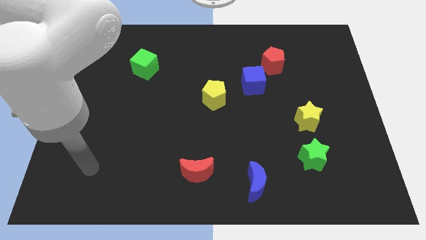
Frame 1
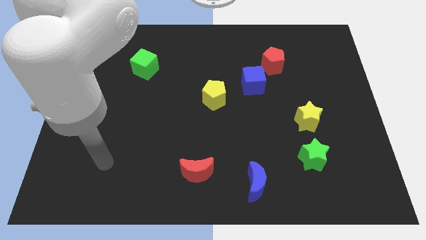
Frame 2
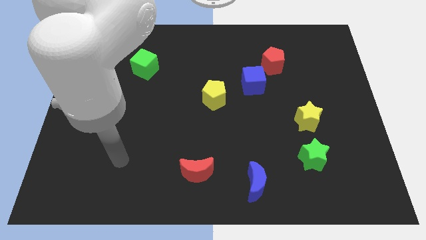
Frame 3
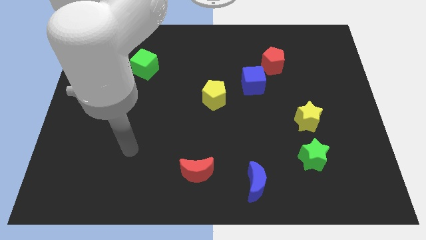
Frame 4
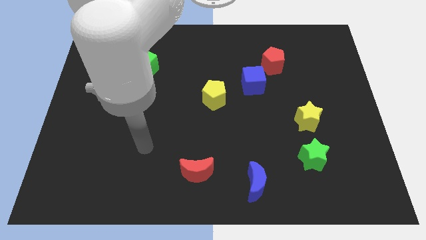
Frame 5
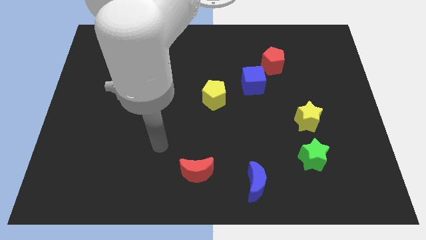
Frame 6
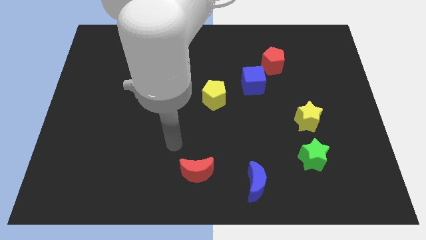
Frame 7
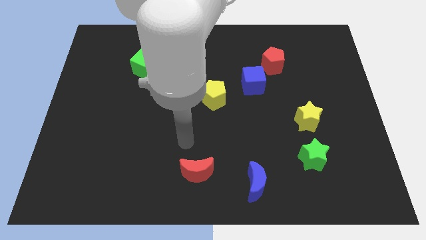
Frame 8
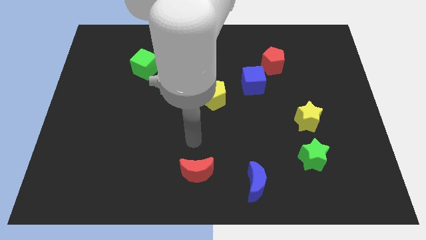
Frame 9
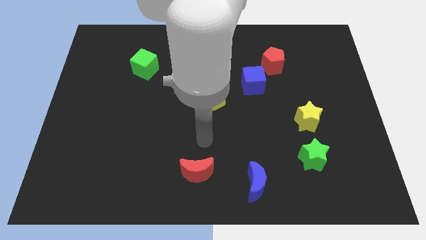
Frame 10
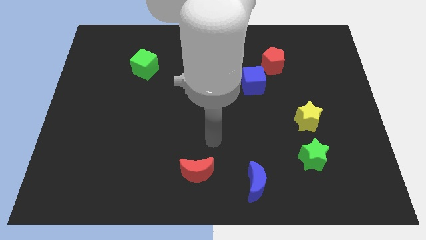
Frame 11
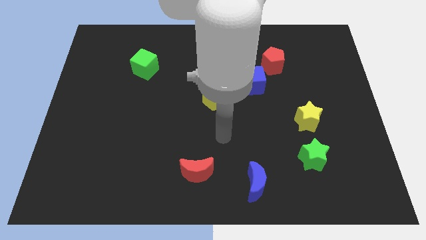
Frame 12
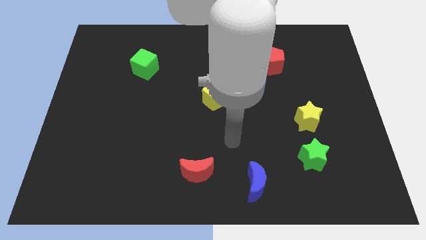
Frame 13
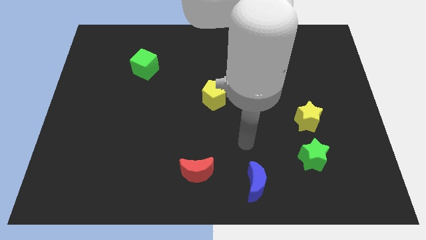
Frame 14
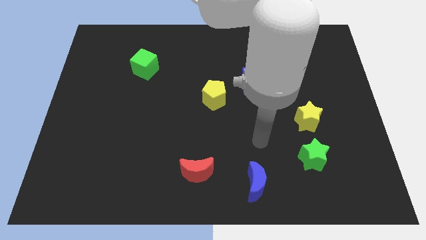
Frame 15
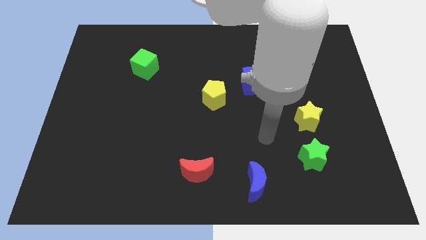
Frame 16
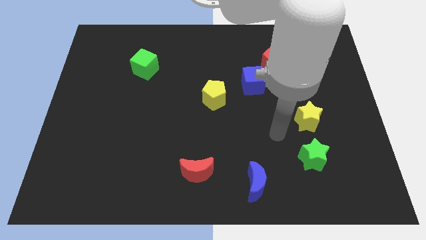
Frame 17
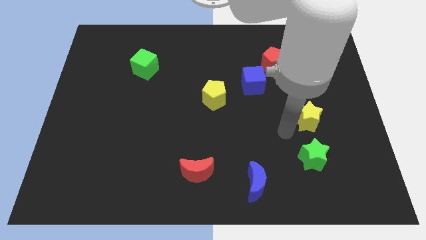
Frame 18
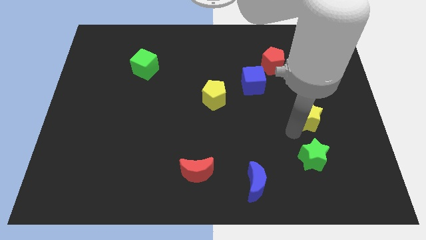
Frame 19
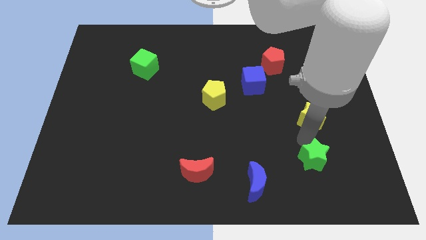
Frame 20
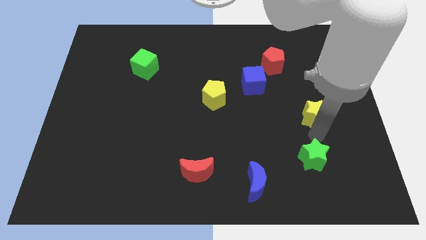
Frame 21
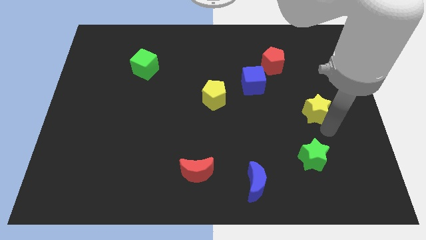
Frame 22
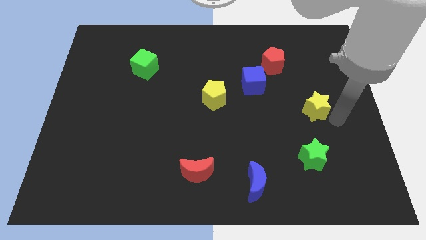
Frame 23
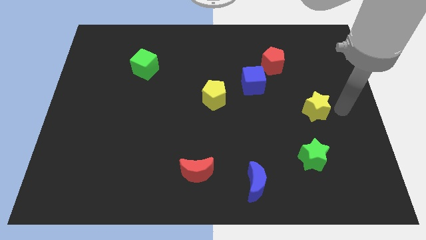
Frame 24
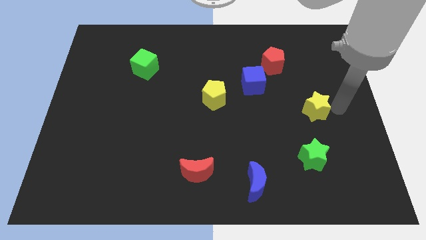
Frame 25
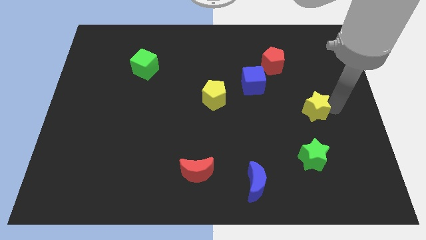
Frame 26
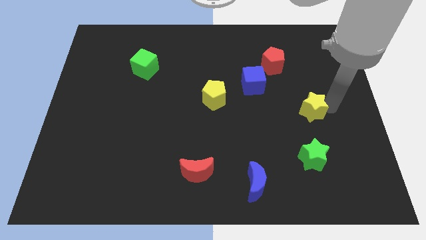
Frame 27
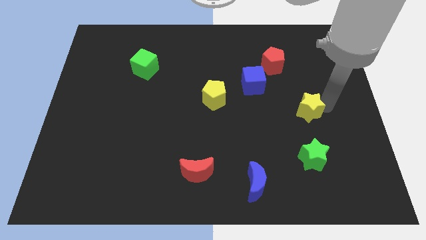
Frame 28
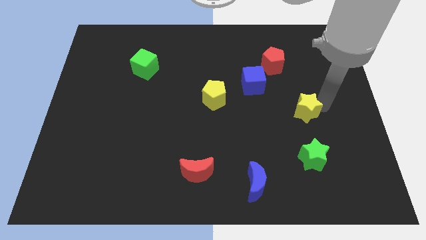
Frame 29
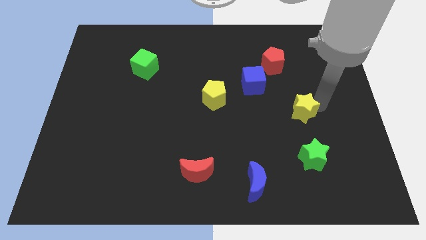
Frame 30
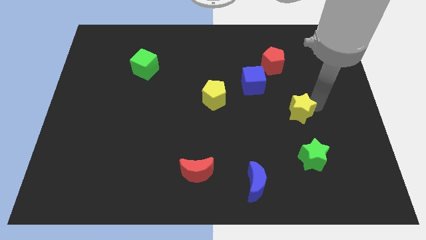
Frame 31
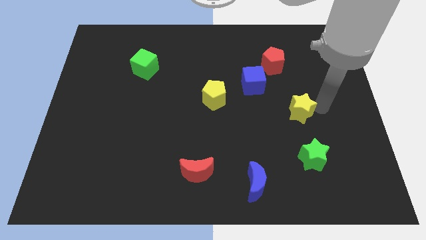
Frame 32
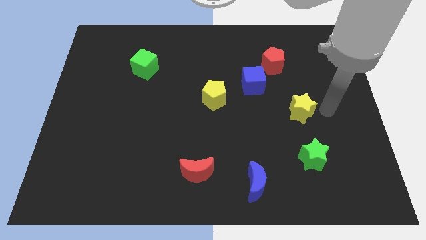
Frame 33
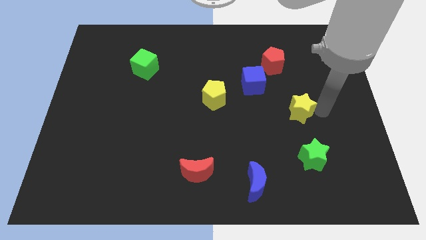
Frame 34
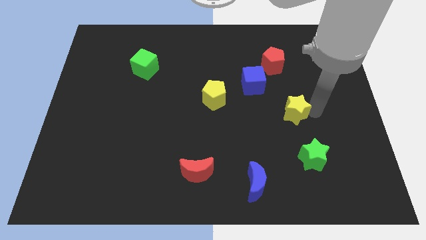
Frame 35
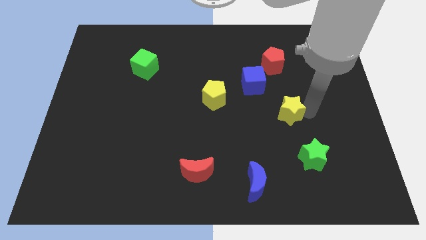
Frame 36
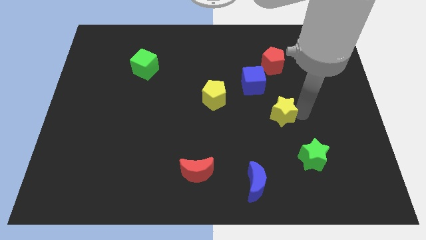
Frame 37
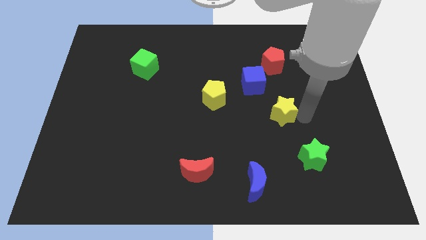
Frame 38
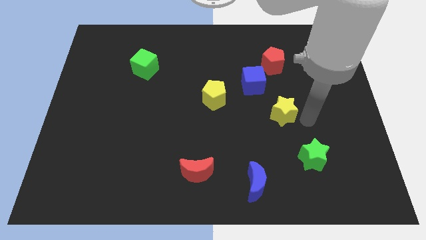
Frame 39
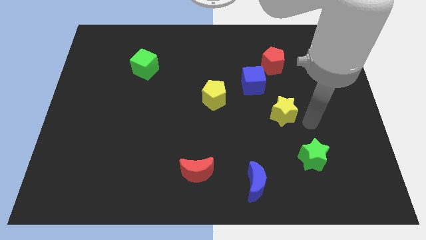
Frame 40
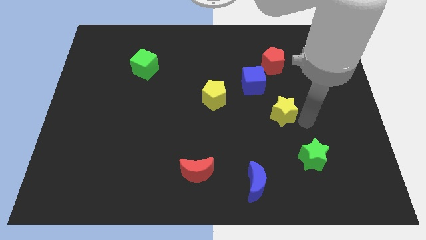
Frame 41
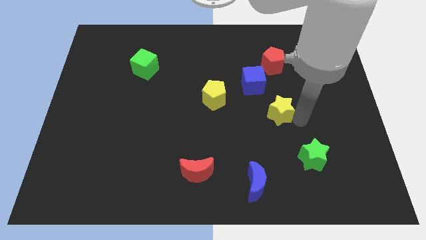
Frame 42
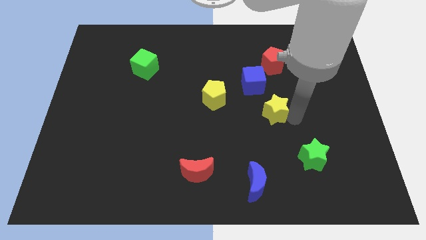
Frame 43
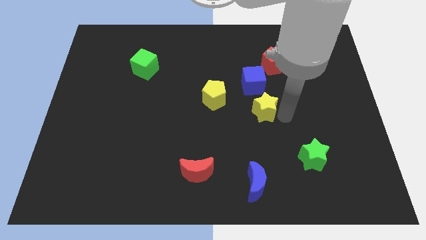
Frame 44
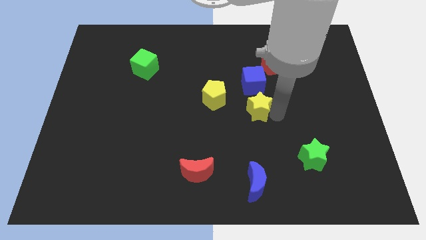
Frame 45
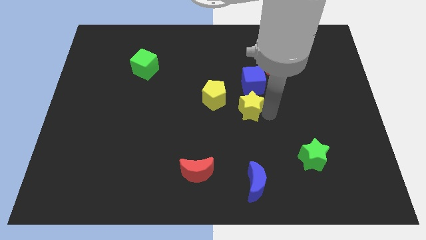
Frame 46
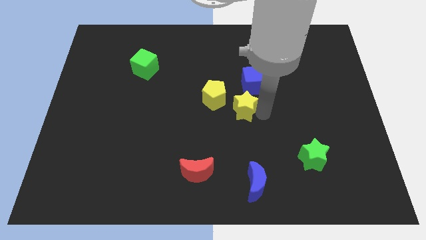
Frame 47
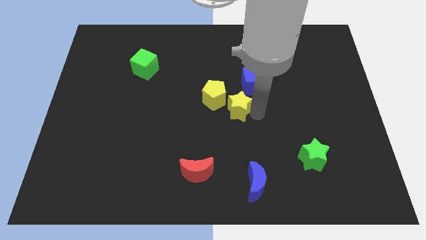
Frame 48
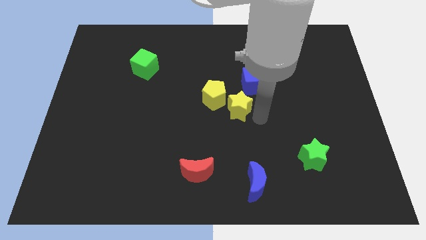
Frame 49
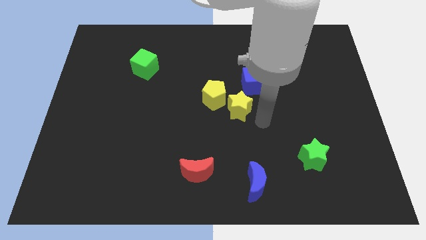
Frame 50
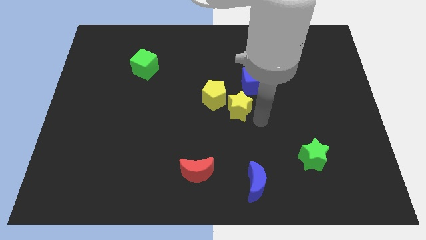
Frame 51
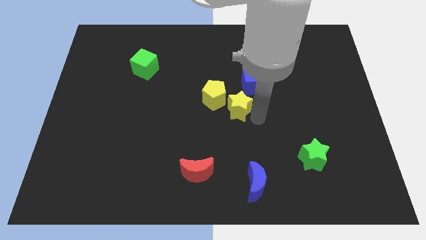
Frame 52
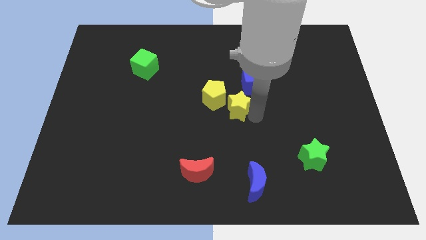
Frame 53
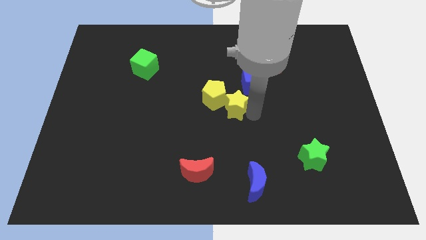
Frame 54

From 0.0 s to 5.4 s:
slide the yellow star towards the yellow pentagon
